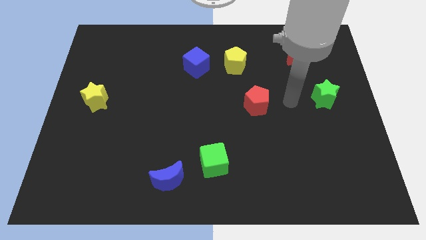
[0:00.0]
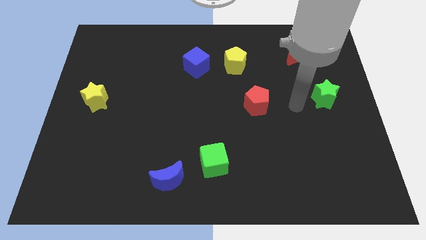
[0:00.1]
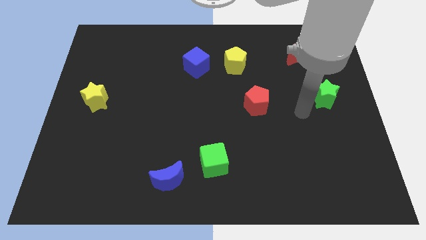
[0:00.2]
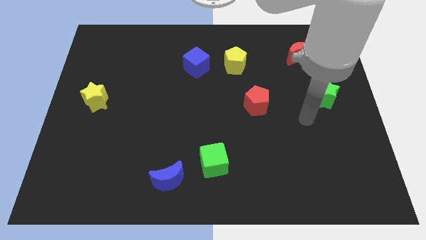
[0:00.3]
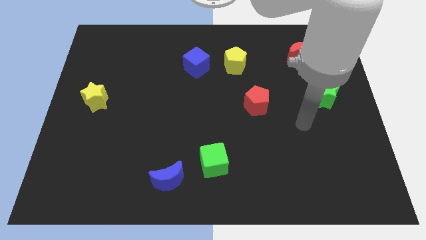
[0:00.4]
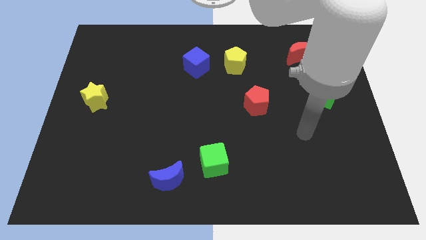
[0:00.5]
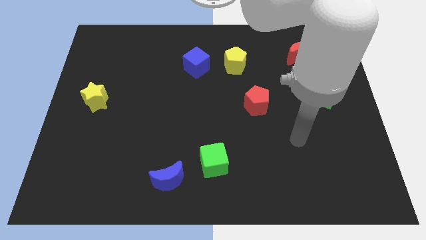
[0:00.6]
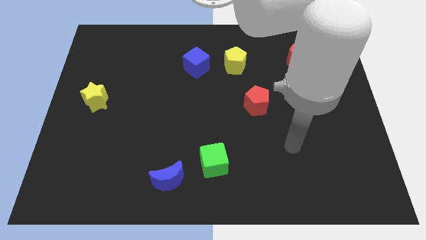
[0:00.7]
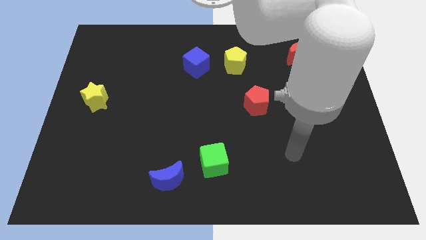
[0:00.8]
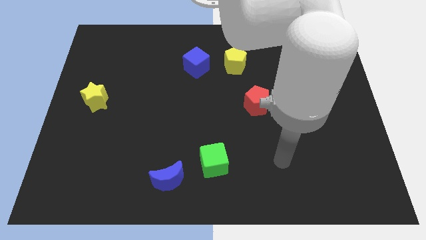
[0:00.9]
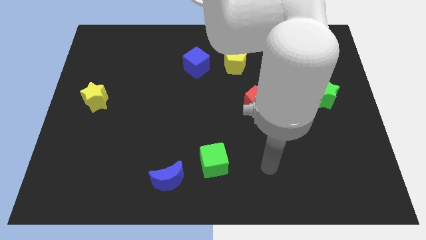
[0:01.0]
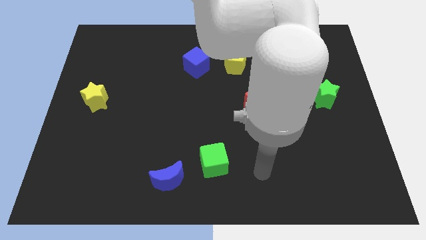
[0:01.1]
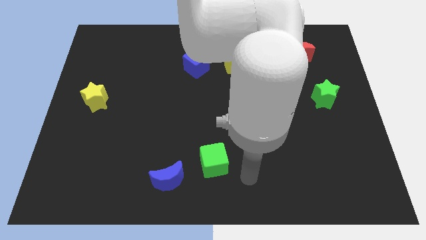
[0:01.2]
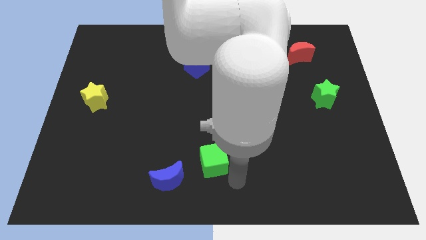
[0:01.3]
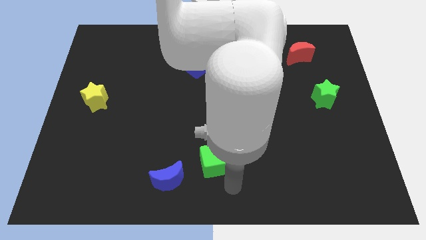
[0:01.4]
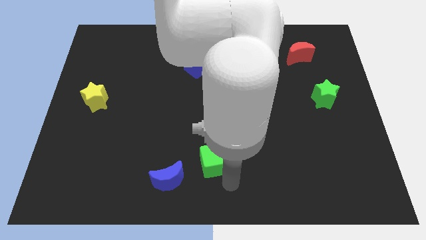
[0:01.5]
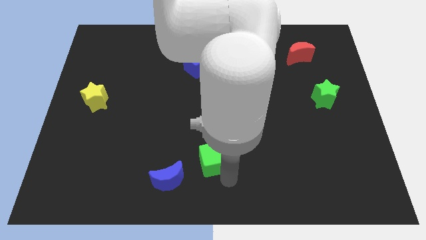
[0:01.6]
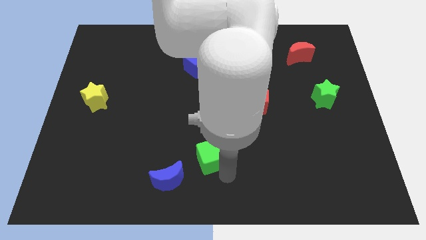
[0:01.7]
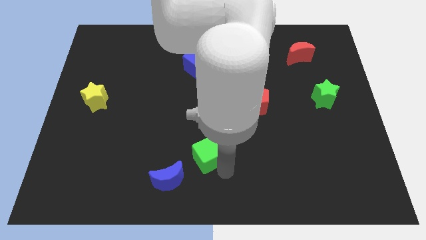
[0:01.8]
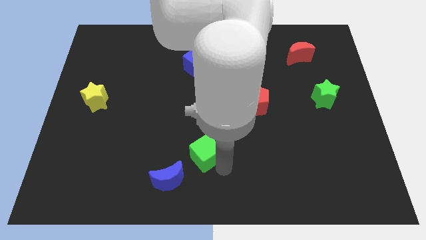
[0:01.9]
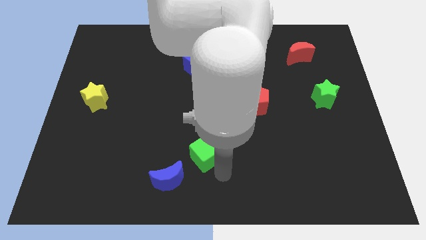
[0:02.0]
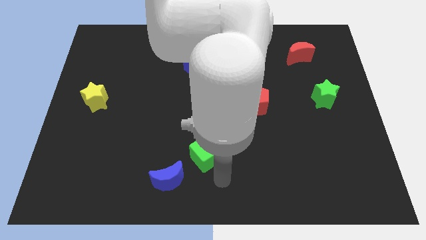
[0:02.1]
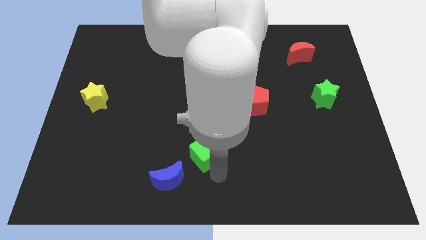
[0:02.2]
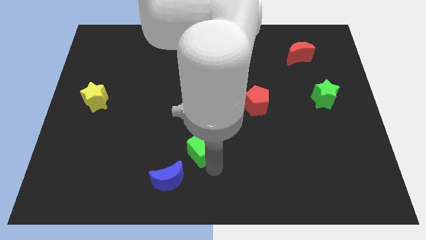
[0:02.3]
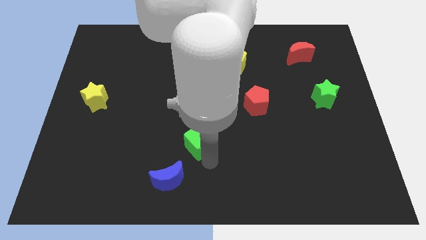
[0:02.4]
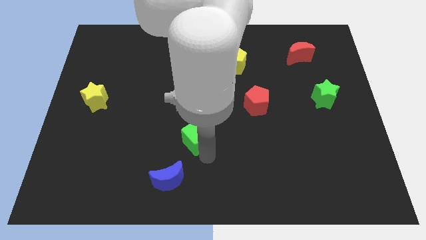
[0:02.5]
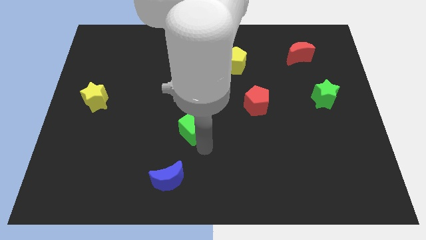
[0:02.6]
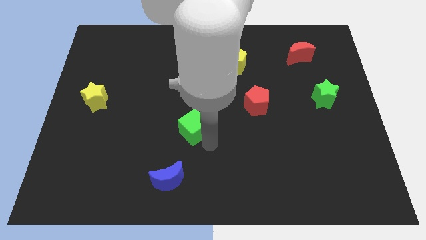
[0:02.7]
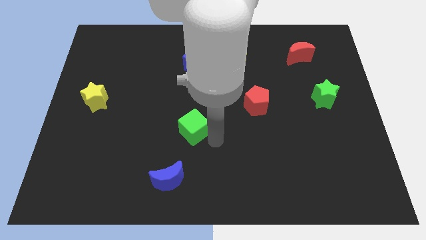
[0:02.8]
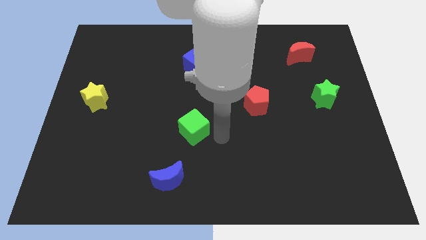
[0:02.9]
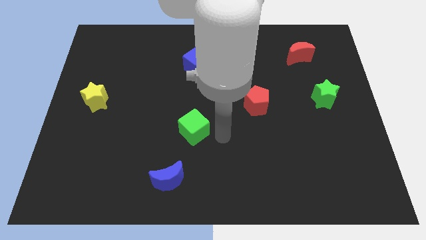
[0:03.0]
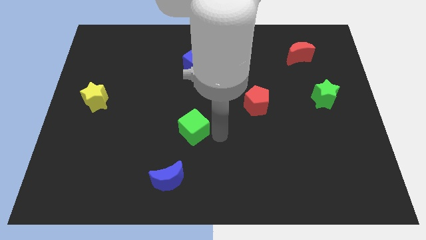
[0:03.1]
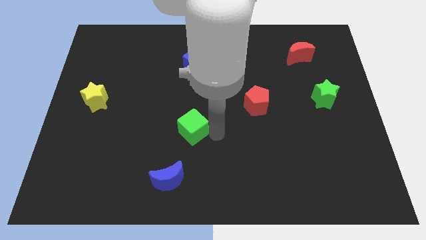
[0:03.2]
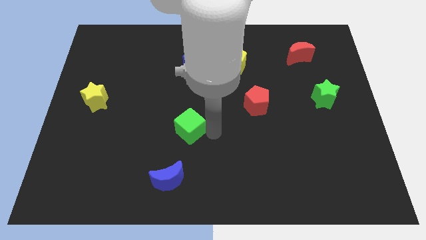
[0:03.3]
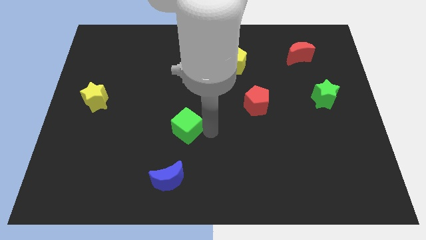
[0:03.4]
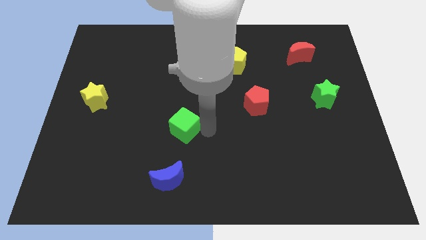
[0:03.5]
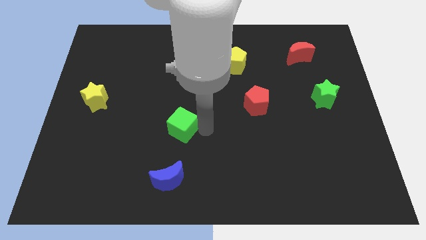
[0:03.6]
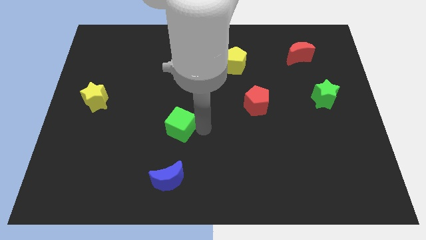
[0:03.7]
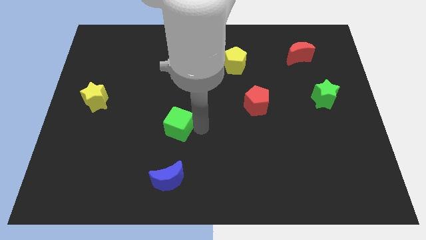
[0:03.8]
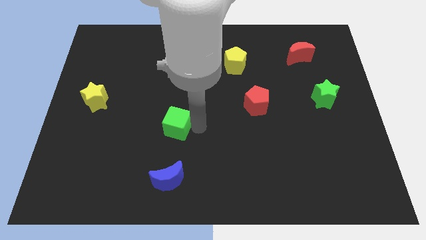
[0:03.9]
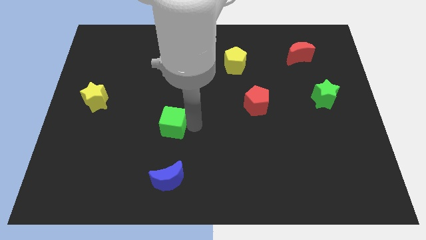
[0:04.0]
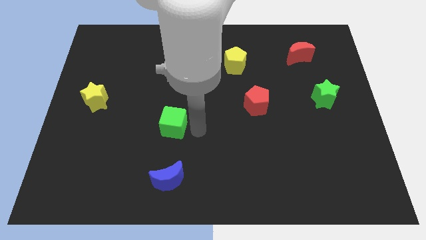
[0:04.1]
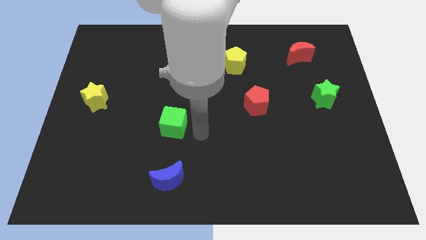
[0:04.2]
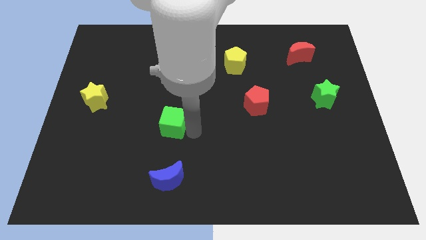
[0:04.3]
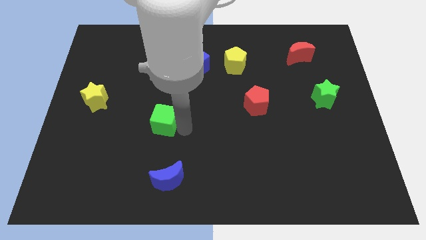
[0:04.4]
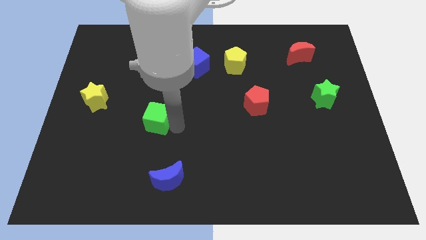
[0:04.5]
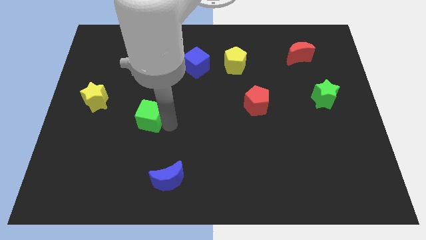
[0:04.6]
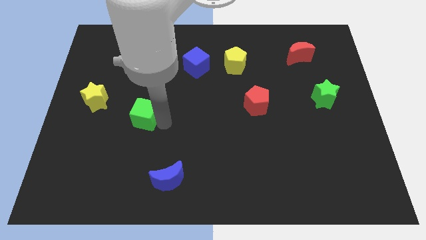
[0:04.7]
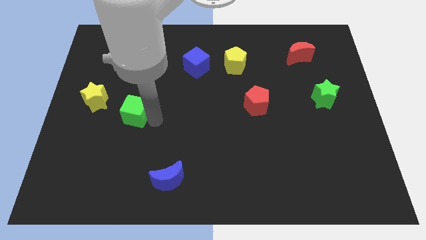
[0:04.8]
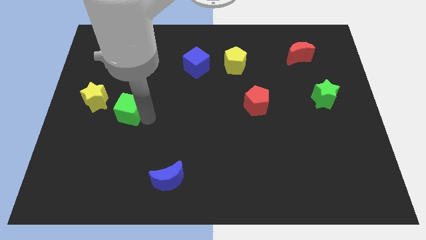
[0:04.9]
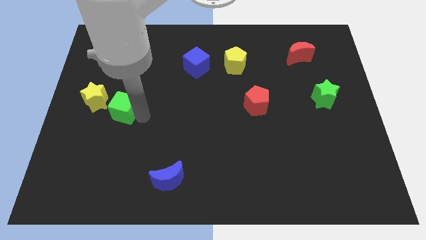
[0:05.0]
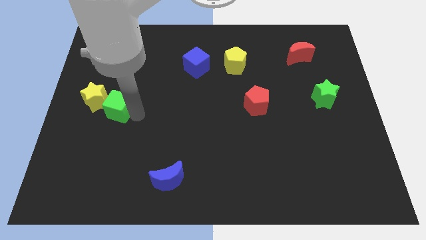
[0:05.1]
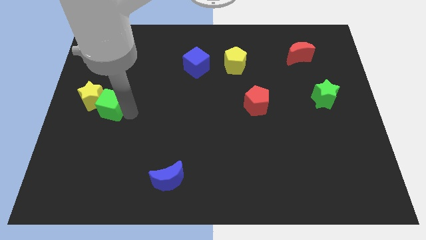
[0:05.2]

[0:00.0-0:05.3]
move the green cube next to the yellow star

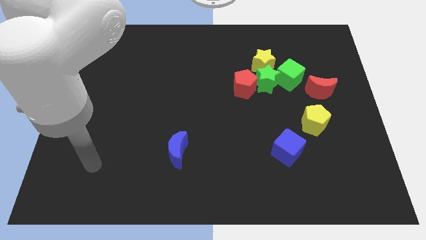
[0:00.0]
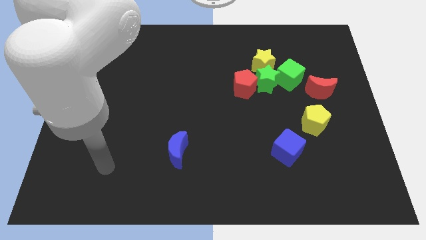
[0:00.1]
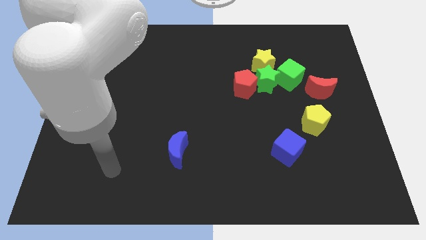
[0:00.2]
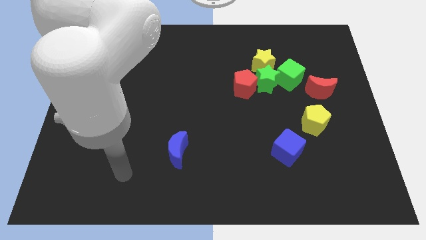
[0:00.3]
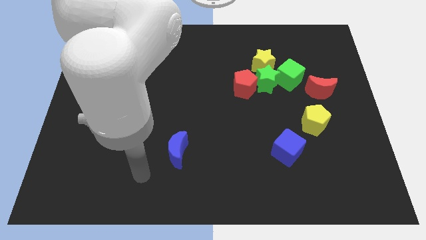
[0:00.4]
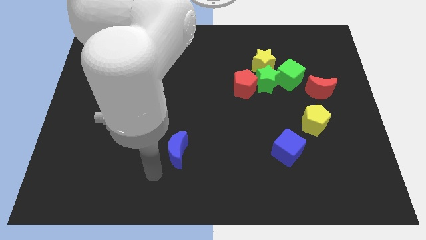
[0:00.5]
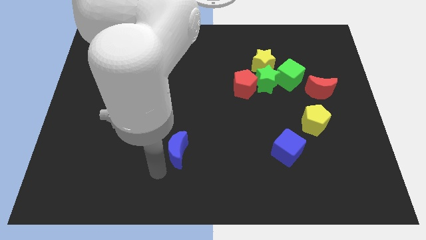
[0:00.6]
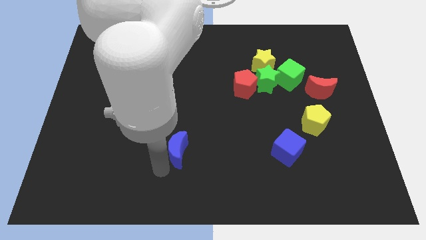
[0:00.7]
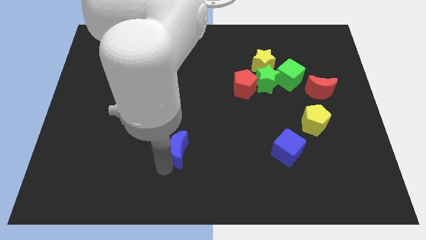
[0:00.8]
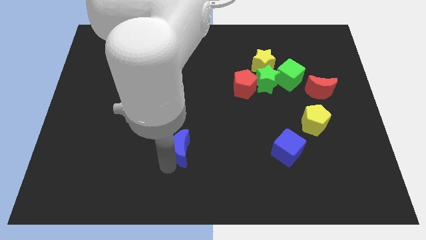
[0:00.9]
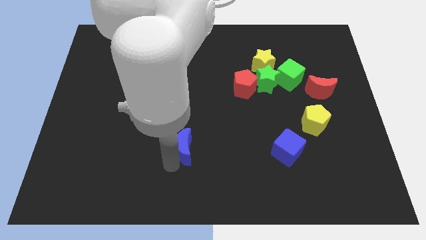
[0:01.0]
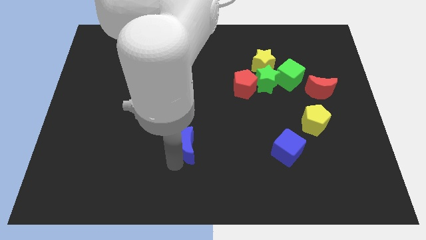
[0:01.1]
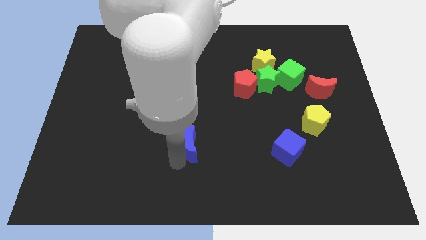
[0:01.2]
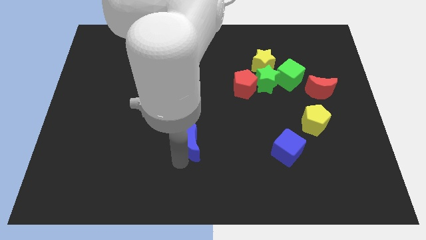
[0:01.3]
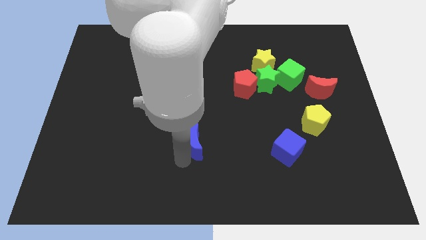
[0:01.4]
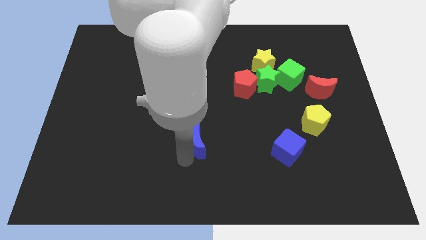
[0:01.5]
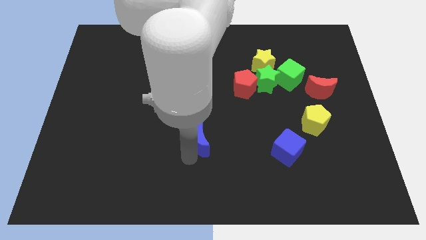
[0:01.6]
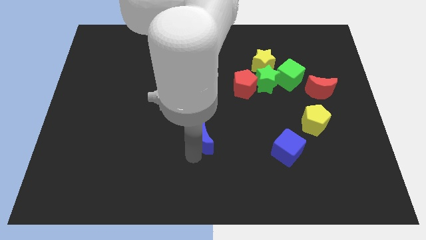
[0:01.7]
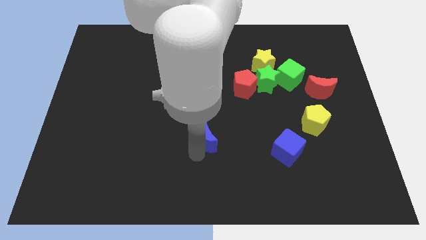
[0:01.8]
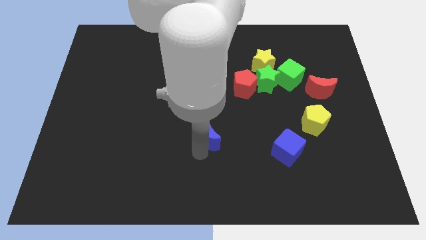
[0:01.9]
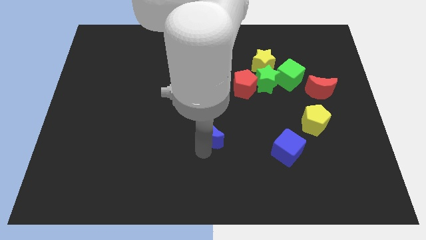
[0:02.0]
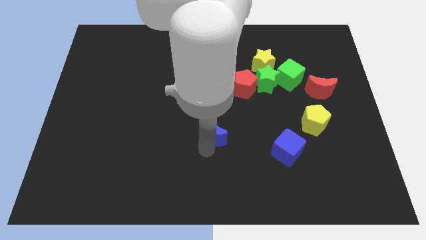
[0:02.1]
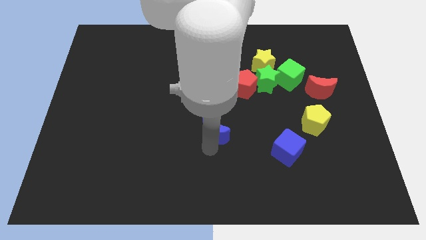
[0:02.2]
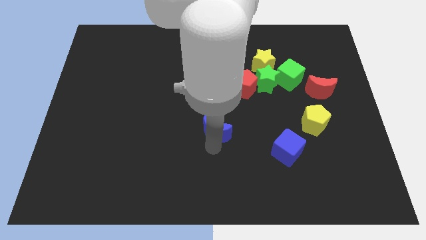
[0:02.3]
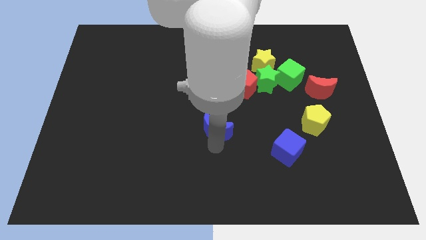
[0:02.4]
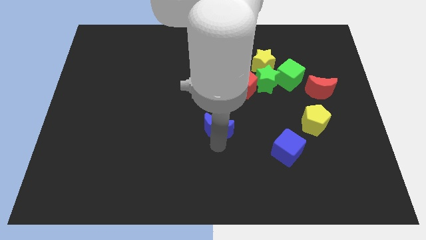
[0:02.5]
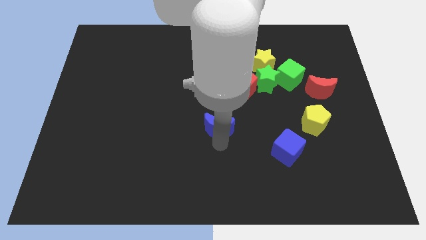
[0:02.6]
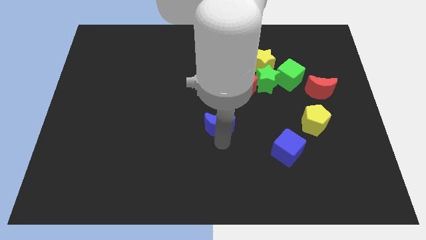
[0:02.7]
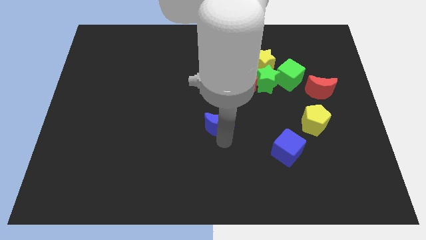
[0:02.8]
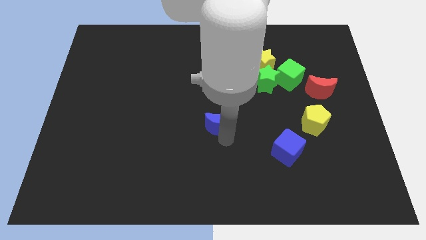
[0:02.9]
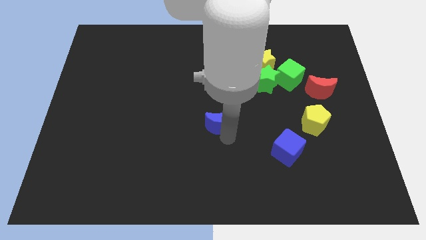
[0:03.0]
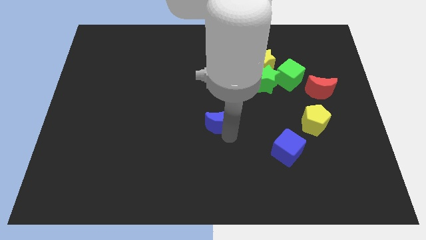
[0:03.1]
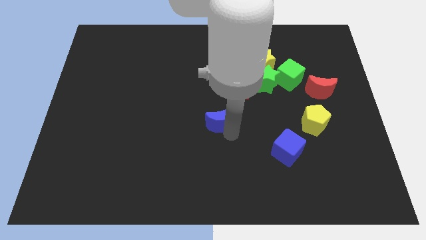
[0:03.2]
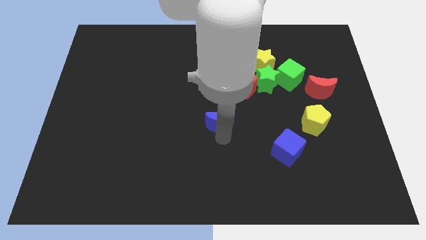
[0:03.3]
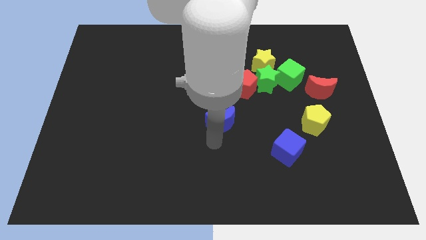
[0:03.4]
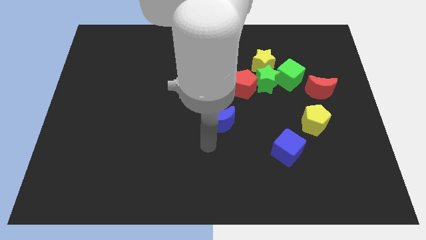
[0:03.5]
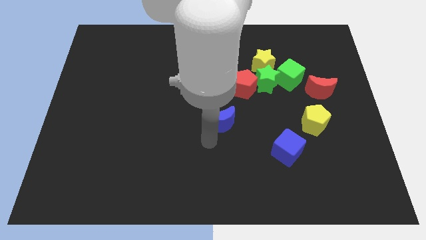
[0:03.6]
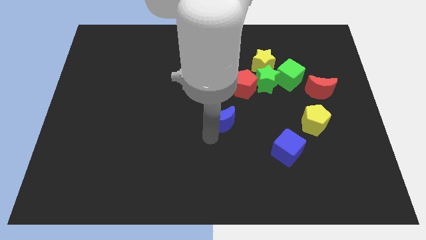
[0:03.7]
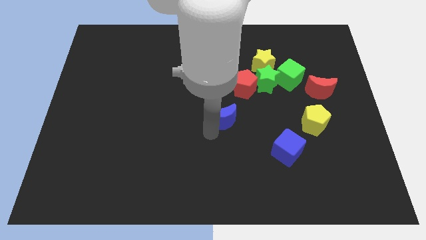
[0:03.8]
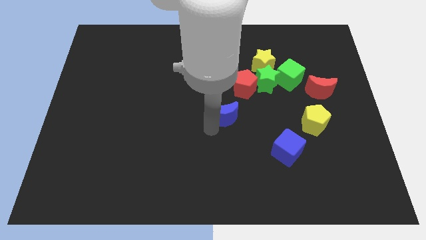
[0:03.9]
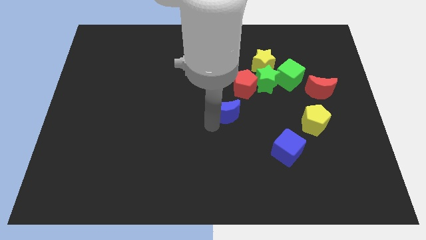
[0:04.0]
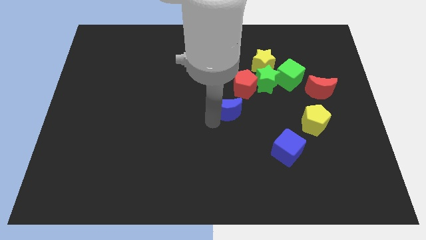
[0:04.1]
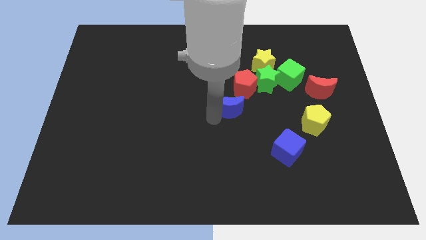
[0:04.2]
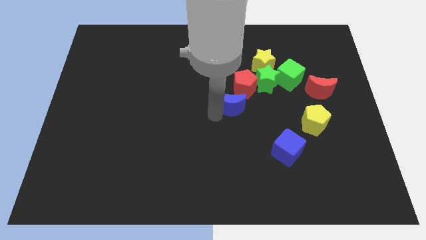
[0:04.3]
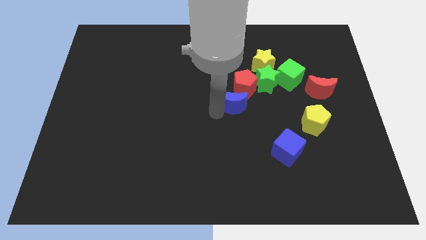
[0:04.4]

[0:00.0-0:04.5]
slide the blue moon next to the red pentagon
